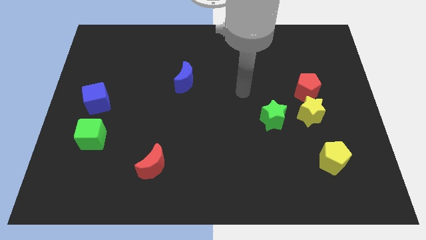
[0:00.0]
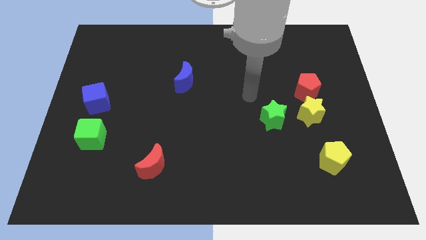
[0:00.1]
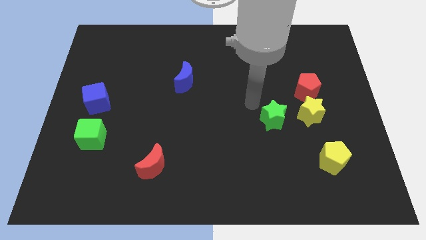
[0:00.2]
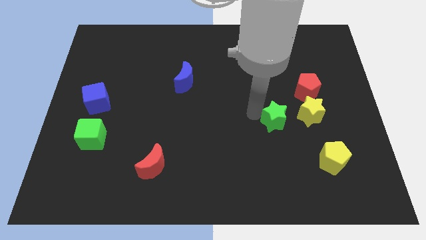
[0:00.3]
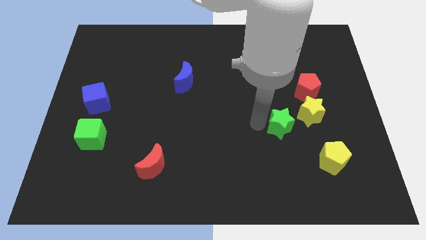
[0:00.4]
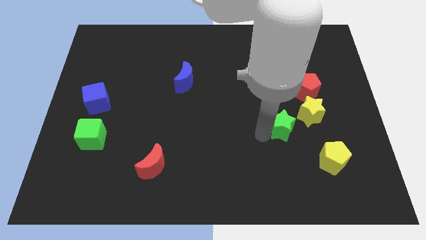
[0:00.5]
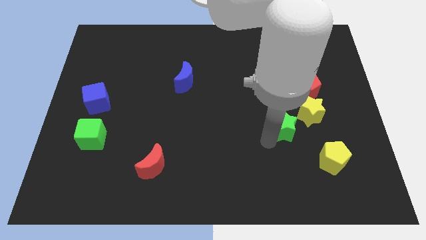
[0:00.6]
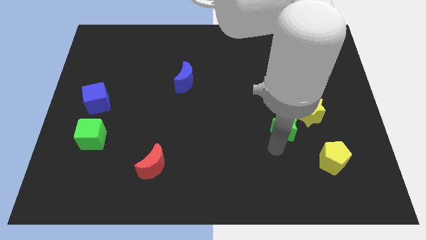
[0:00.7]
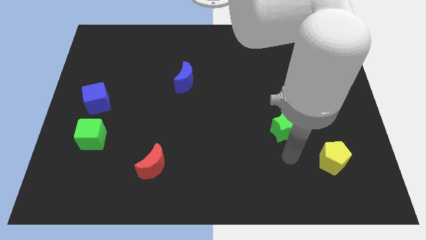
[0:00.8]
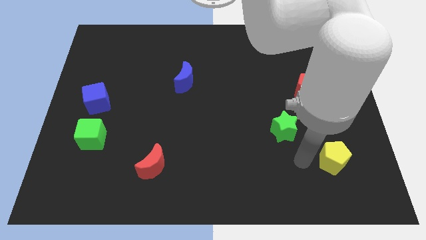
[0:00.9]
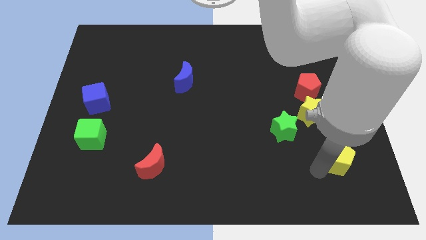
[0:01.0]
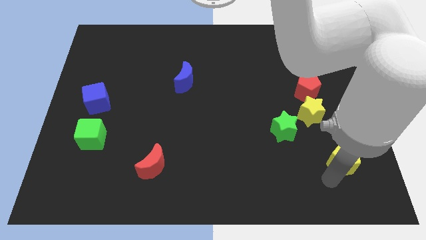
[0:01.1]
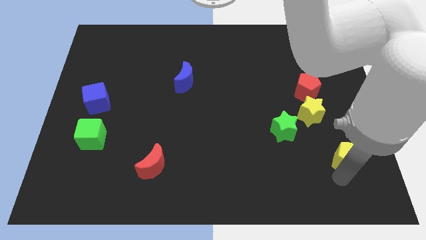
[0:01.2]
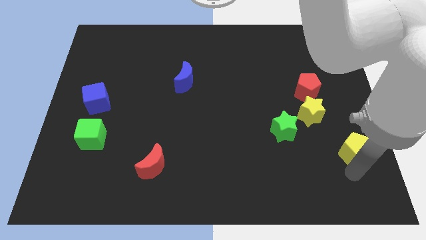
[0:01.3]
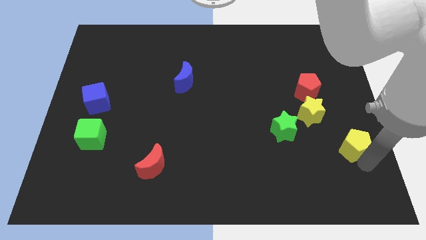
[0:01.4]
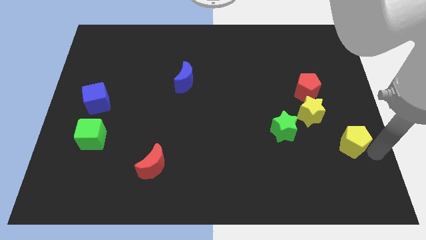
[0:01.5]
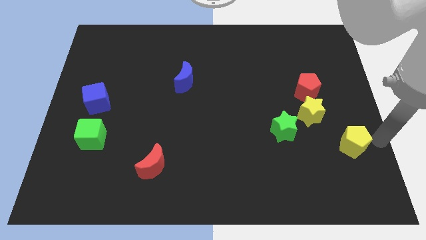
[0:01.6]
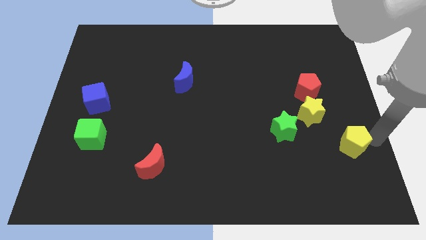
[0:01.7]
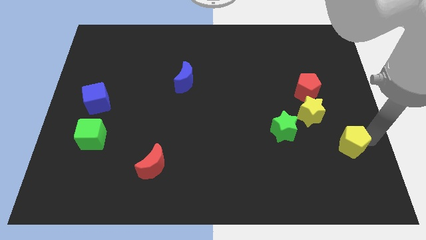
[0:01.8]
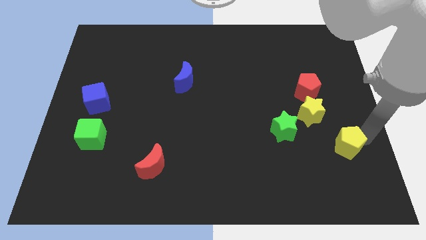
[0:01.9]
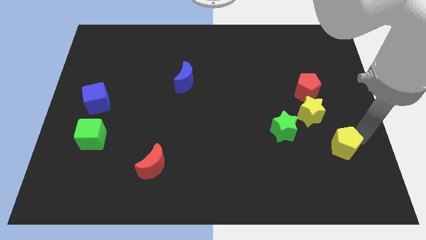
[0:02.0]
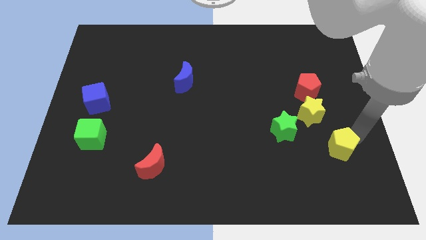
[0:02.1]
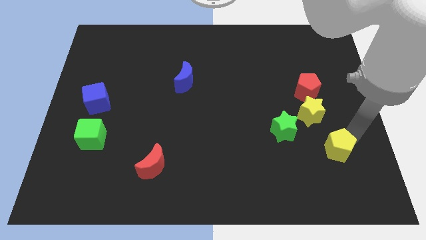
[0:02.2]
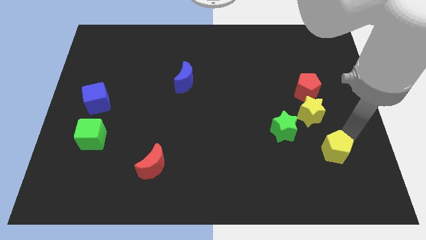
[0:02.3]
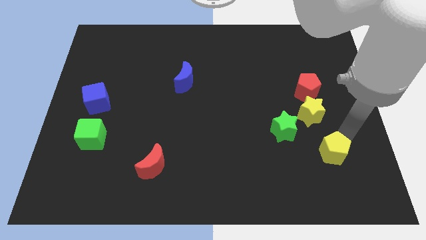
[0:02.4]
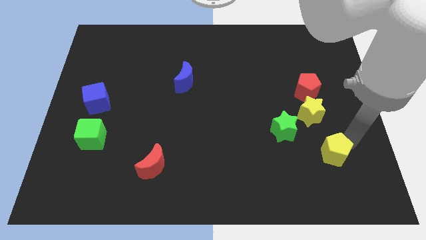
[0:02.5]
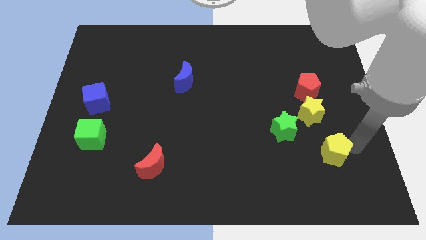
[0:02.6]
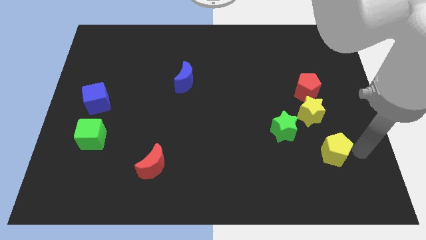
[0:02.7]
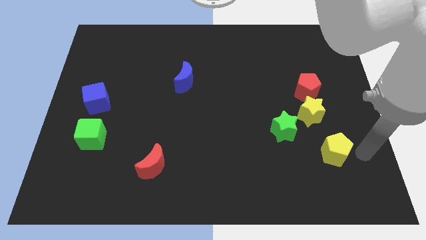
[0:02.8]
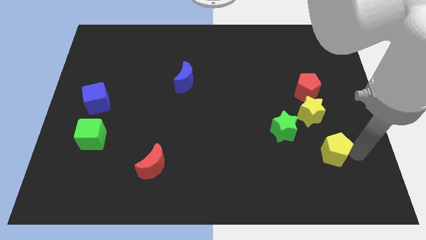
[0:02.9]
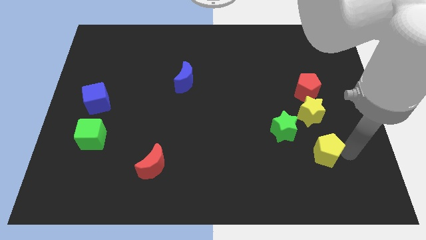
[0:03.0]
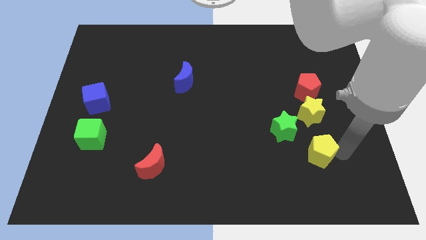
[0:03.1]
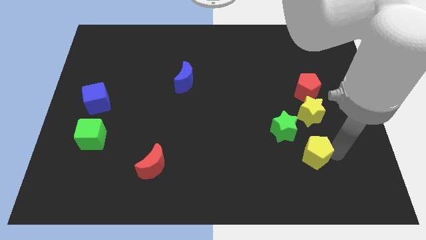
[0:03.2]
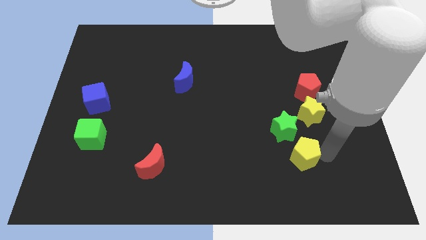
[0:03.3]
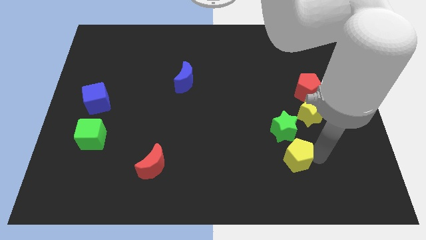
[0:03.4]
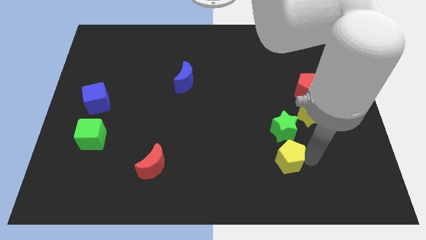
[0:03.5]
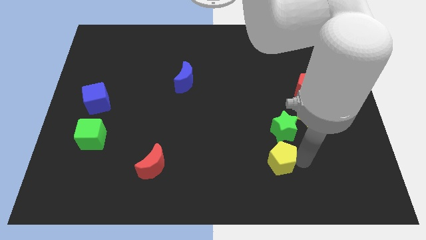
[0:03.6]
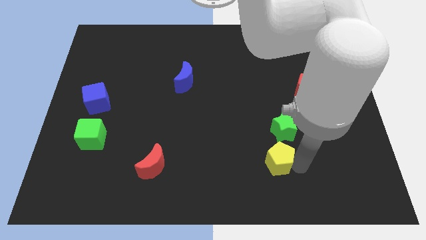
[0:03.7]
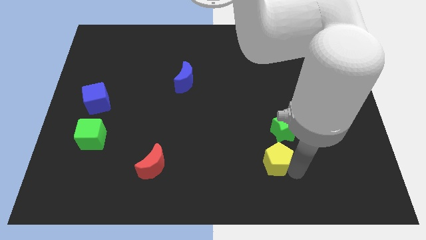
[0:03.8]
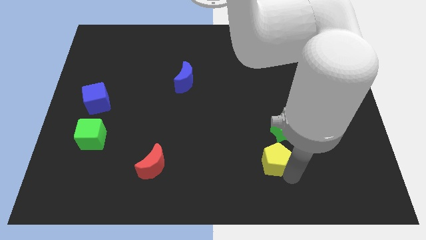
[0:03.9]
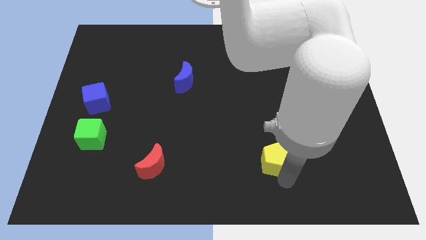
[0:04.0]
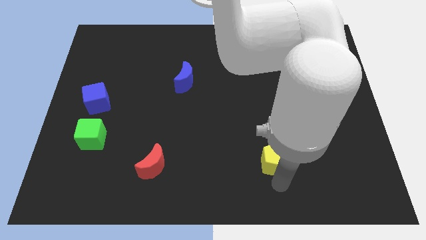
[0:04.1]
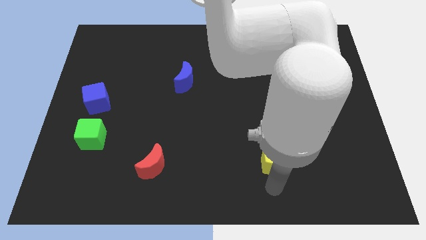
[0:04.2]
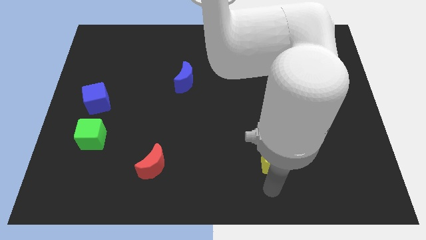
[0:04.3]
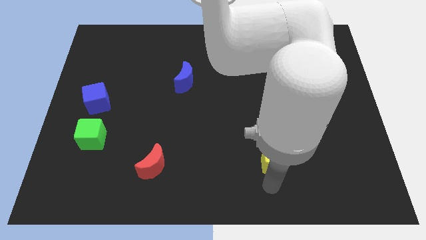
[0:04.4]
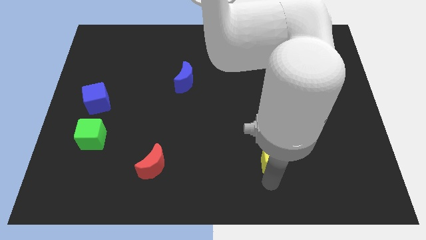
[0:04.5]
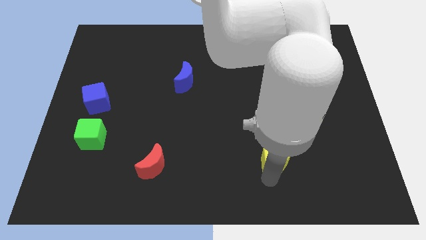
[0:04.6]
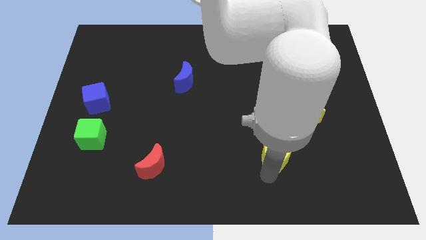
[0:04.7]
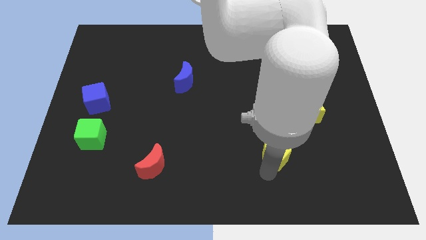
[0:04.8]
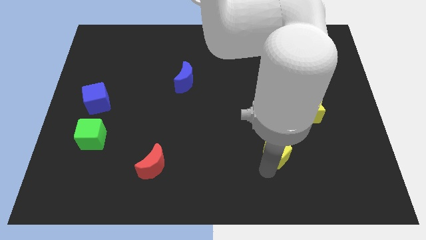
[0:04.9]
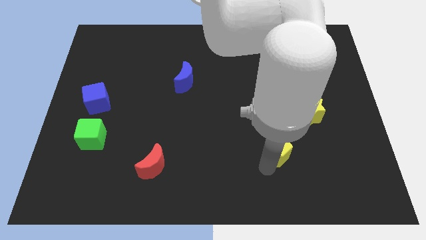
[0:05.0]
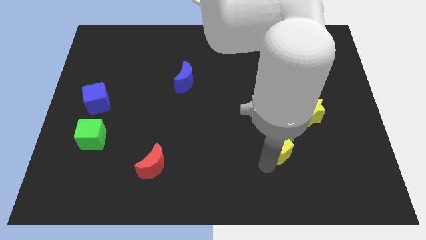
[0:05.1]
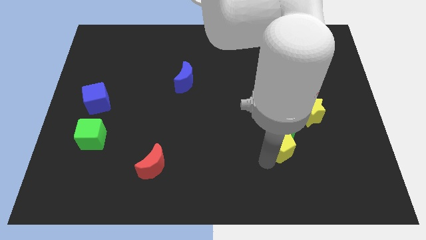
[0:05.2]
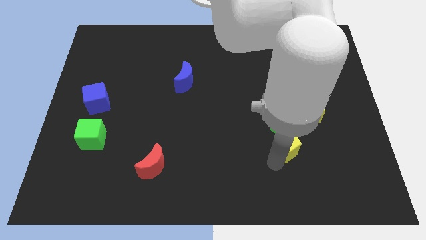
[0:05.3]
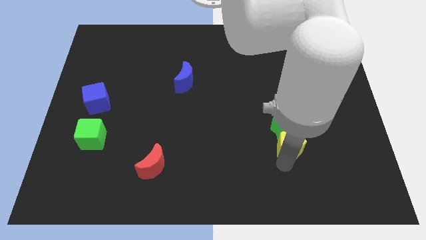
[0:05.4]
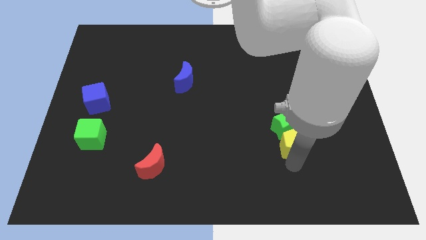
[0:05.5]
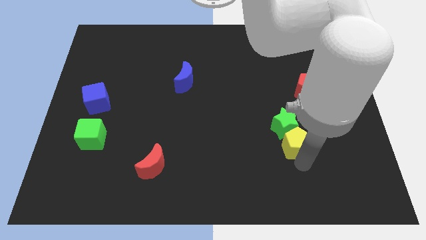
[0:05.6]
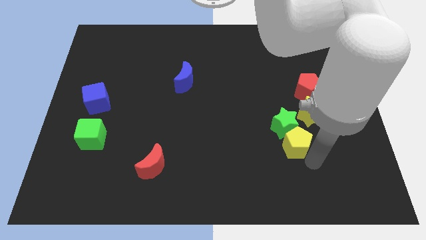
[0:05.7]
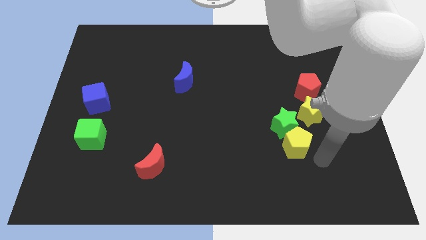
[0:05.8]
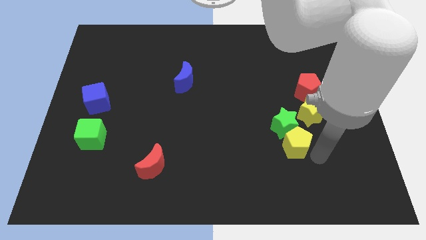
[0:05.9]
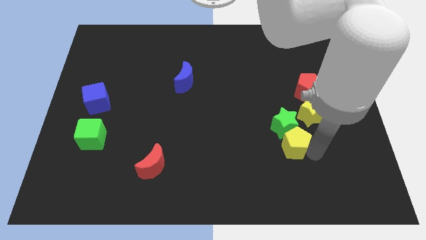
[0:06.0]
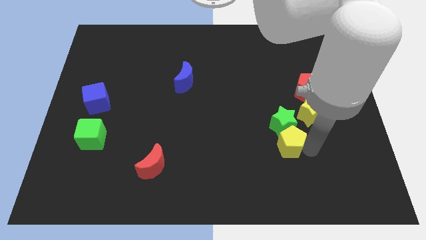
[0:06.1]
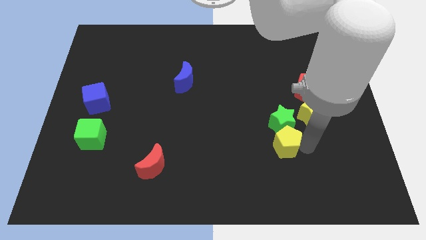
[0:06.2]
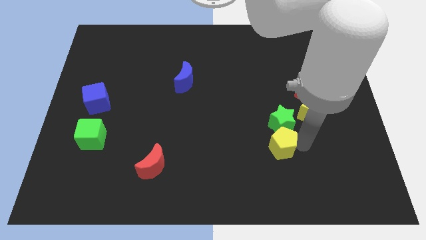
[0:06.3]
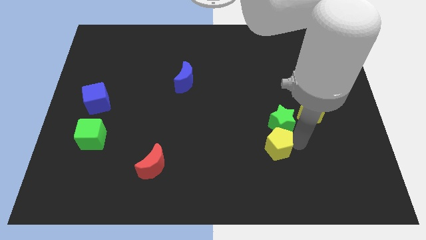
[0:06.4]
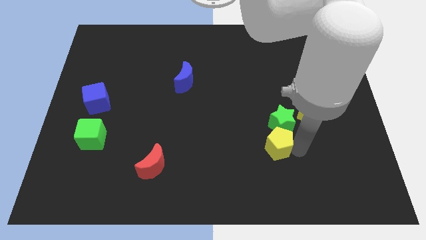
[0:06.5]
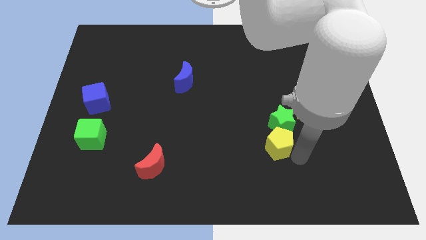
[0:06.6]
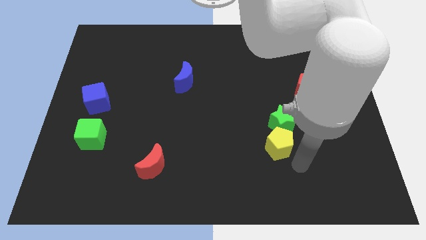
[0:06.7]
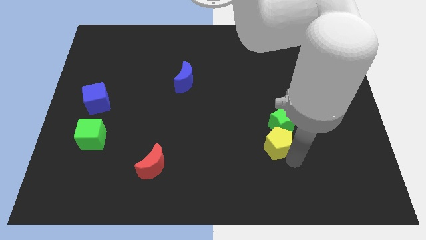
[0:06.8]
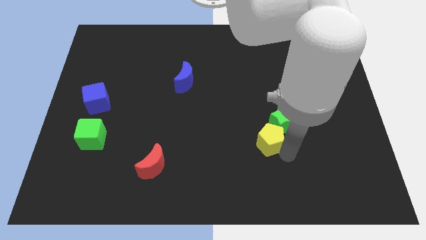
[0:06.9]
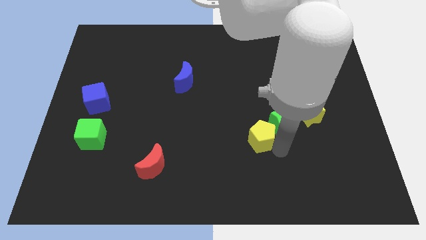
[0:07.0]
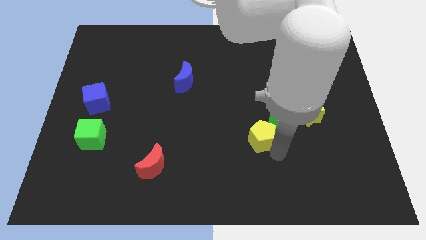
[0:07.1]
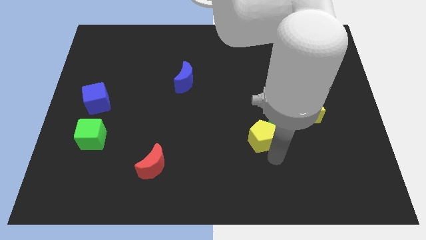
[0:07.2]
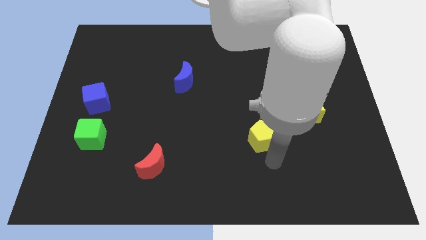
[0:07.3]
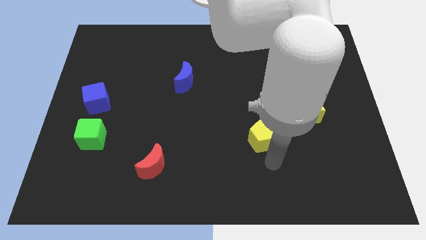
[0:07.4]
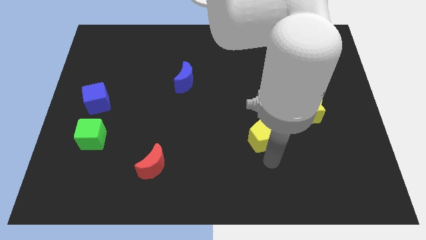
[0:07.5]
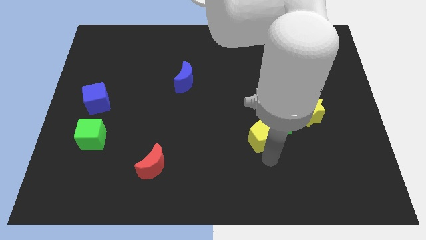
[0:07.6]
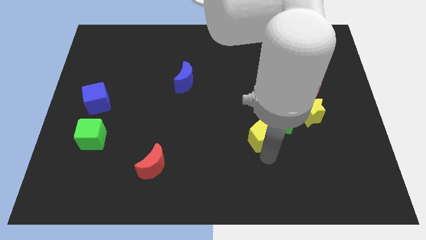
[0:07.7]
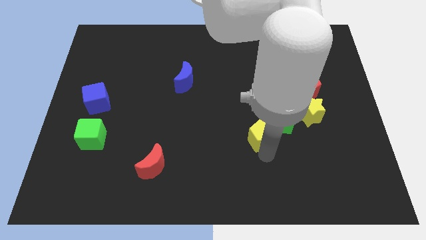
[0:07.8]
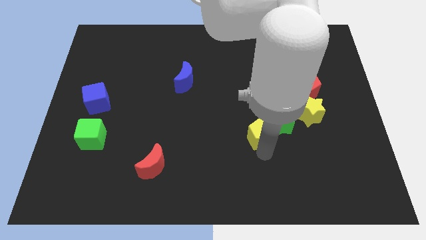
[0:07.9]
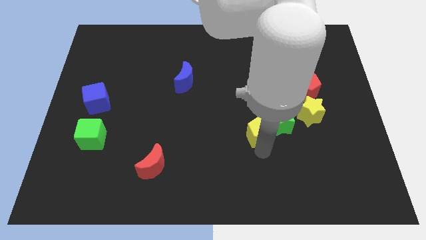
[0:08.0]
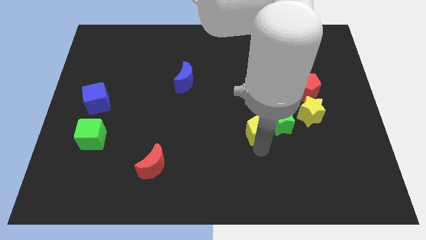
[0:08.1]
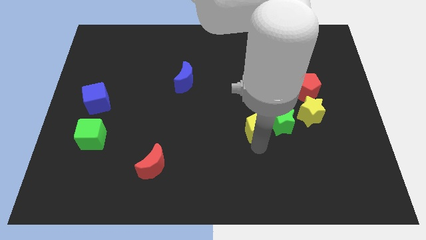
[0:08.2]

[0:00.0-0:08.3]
put the yellow pentagon left of the yellow star
